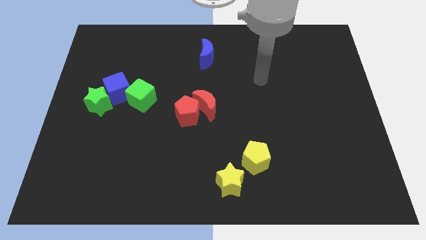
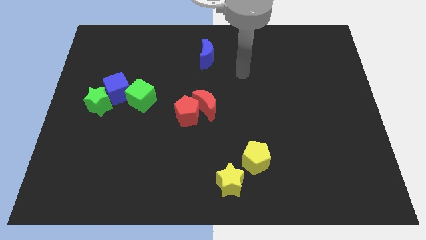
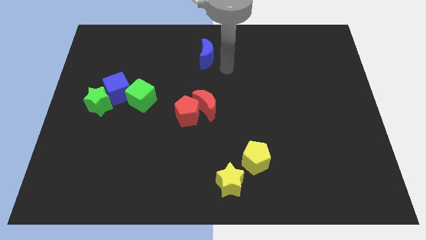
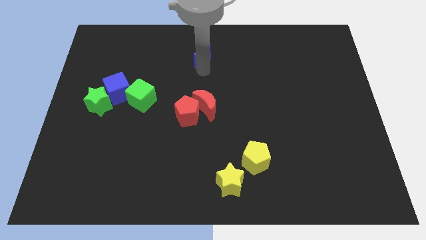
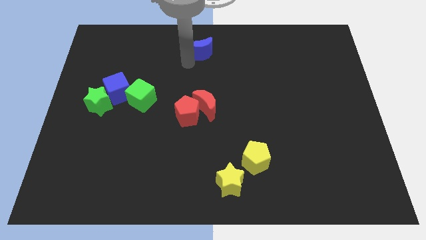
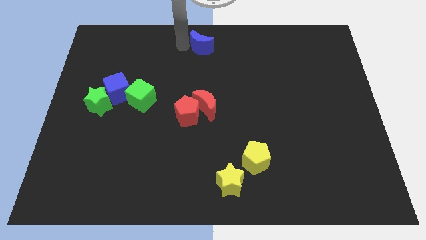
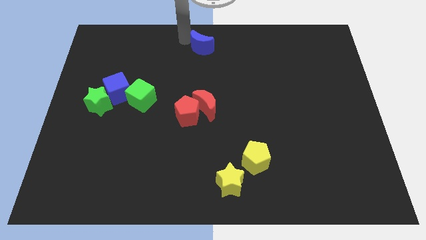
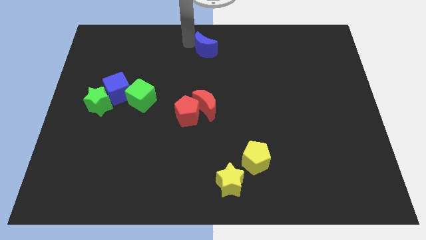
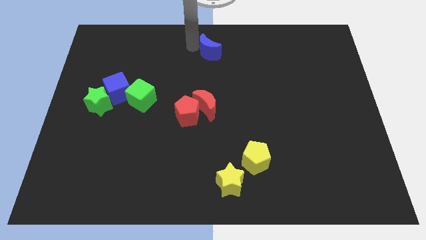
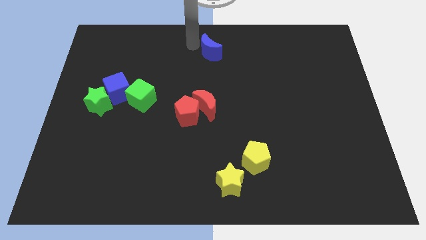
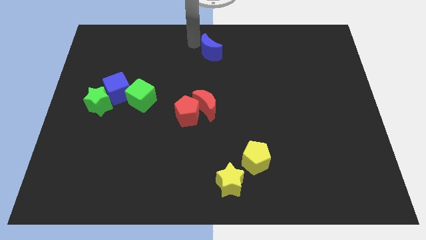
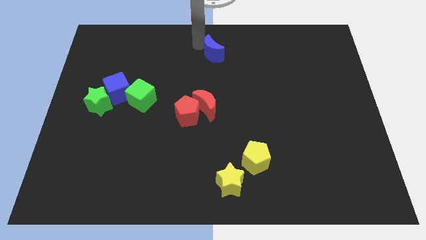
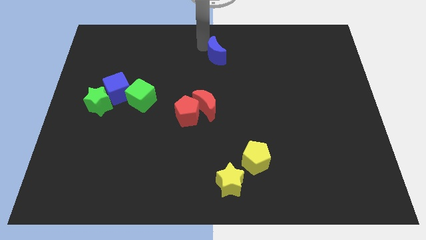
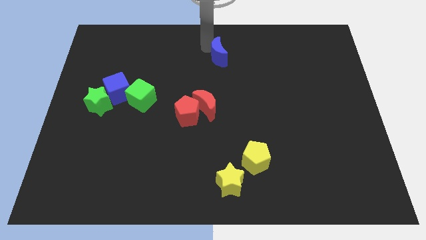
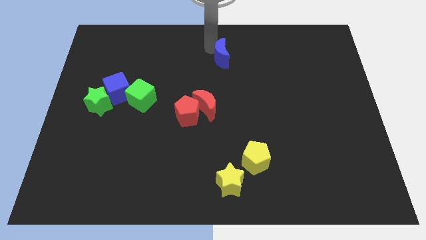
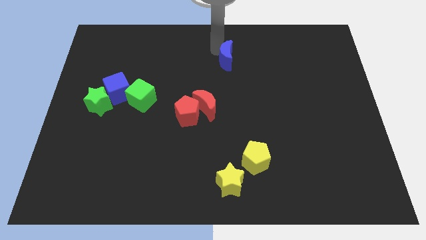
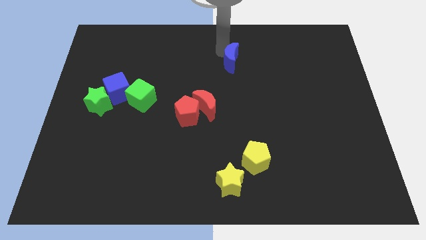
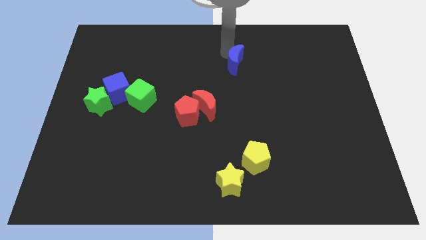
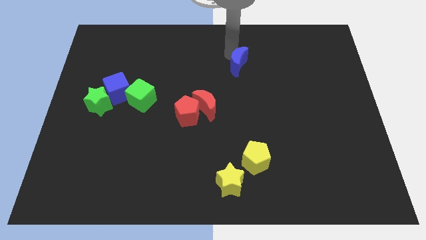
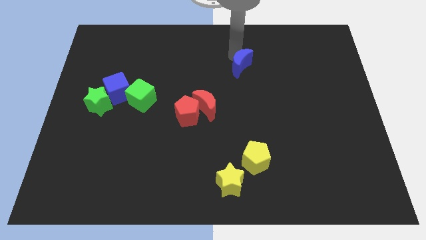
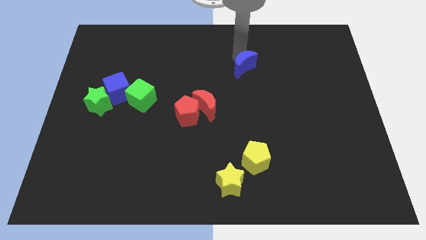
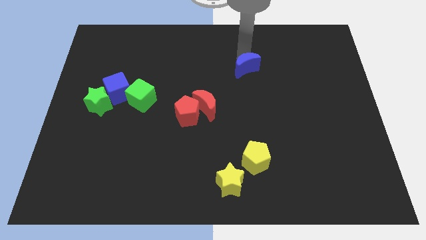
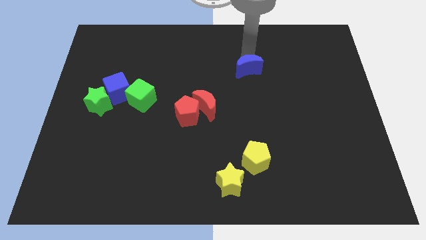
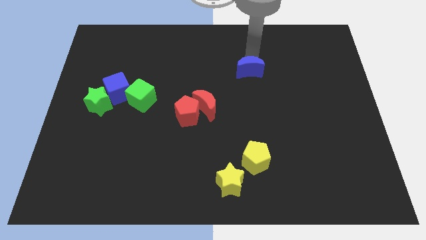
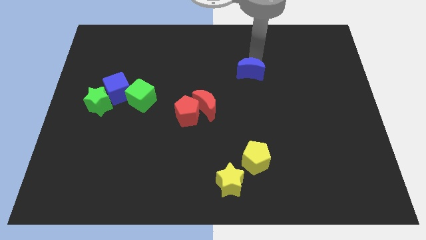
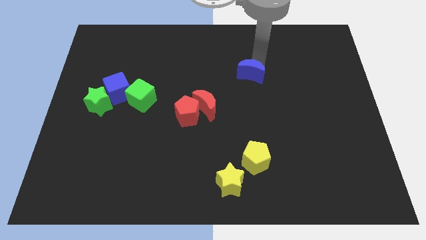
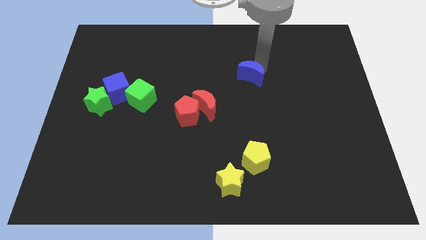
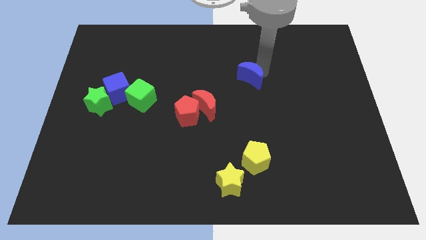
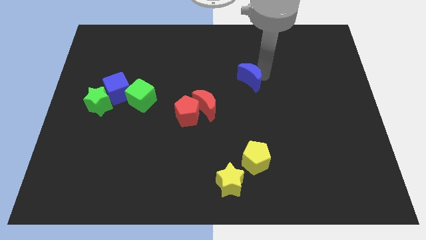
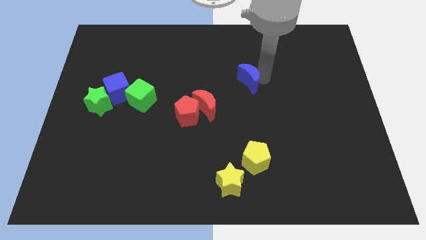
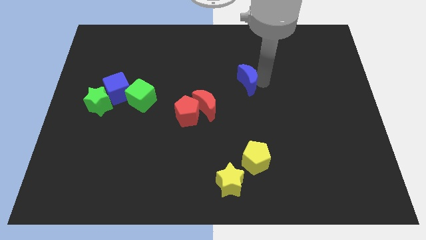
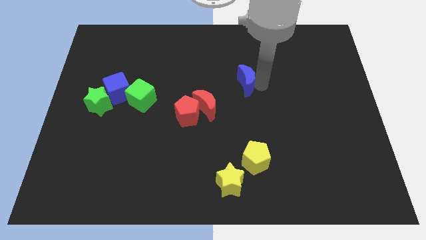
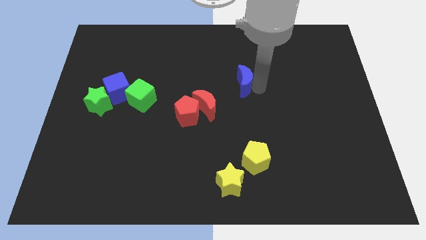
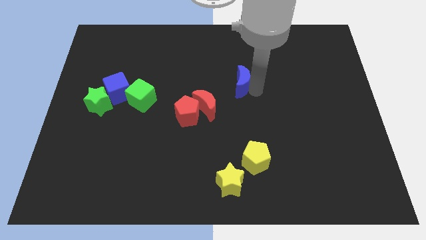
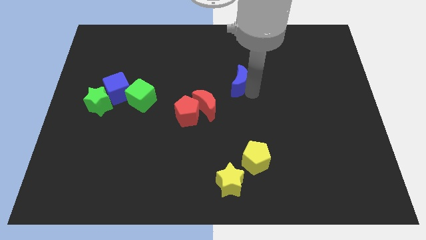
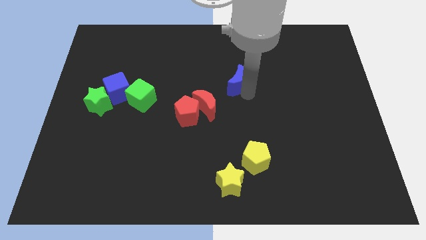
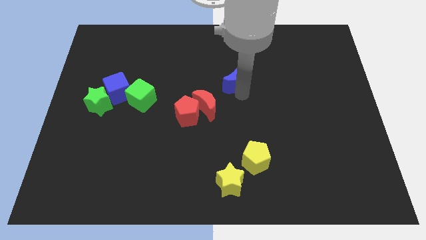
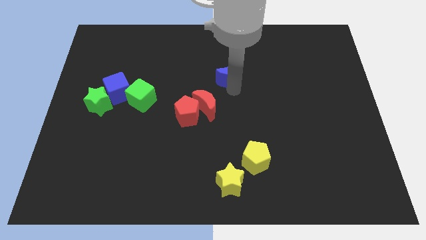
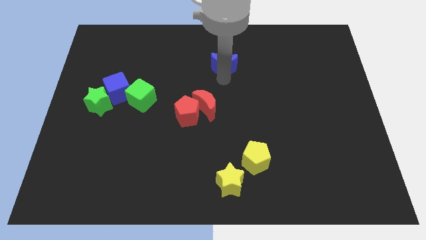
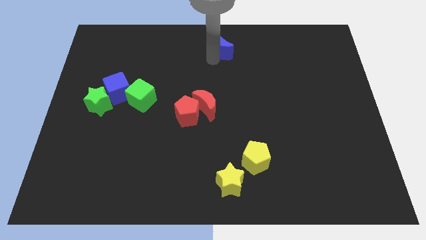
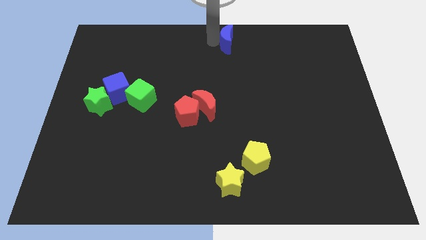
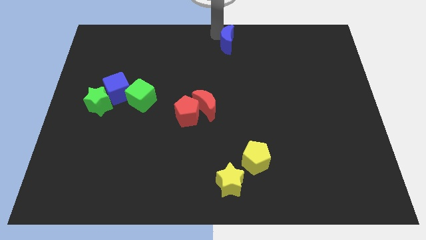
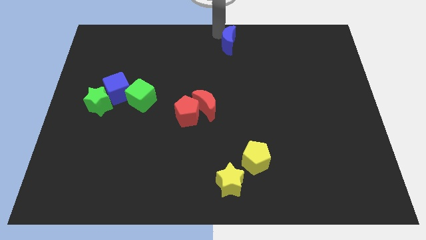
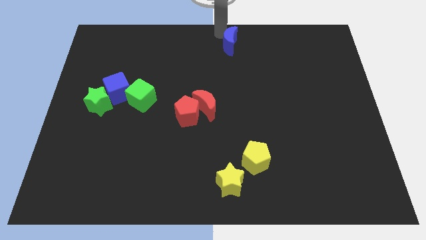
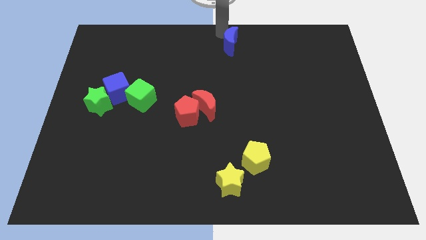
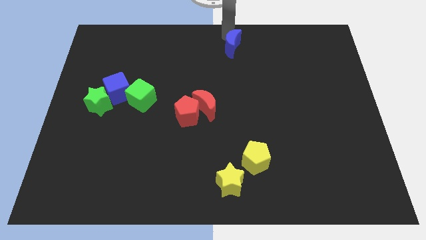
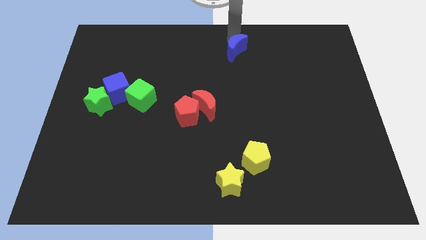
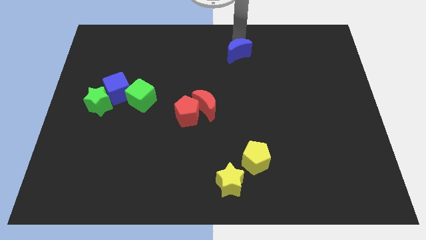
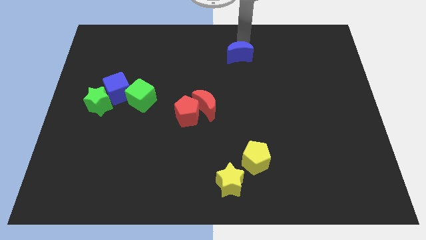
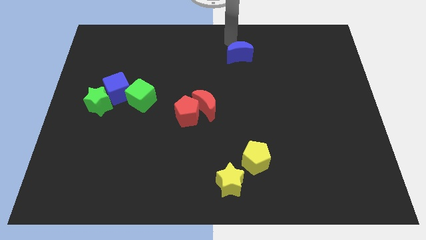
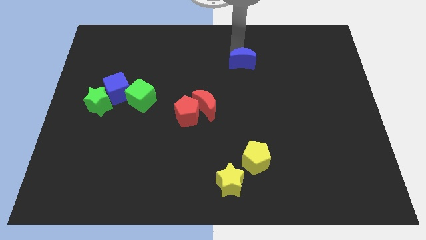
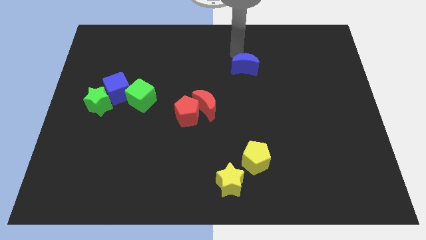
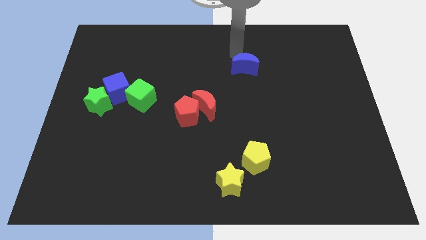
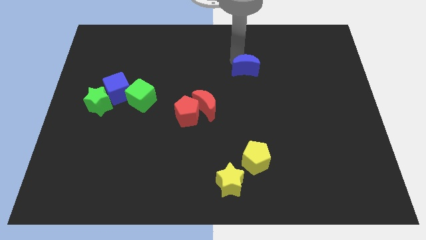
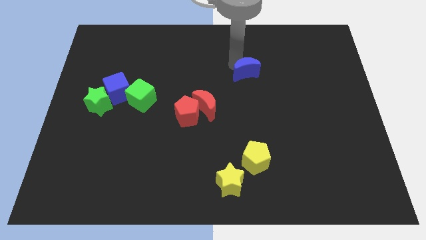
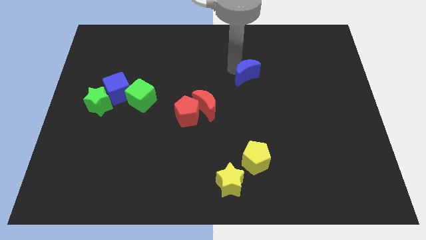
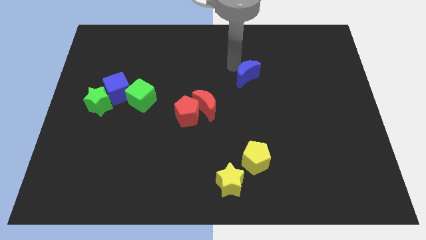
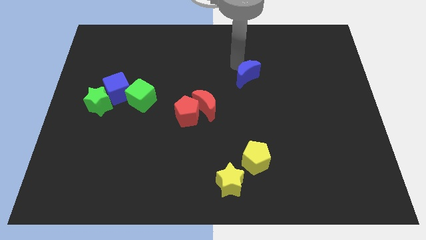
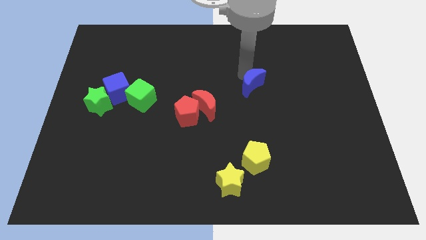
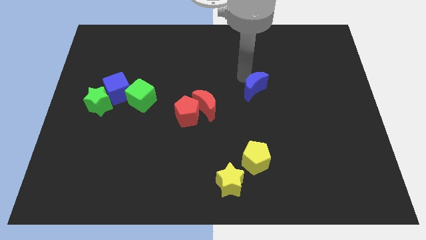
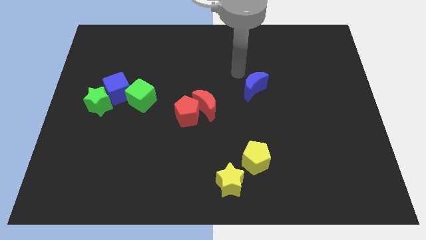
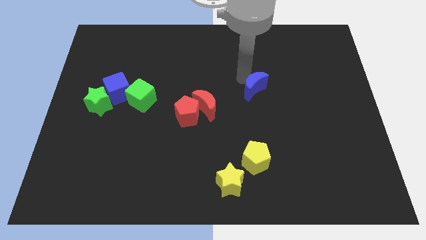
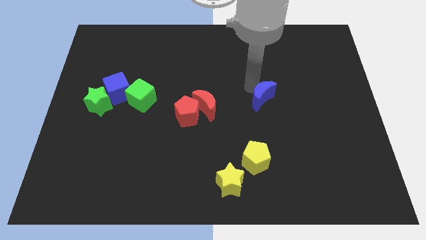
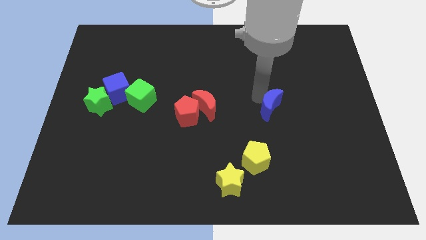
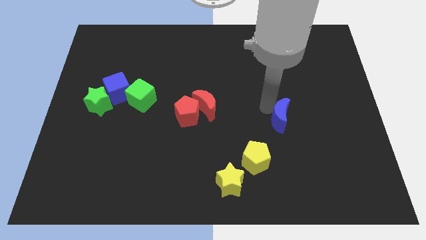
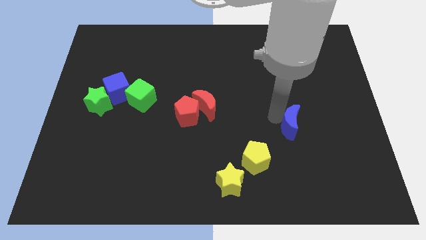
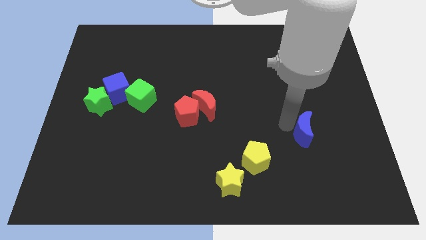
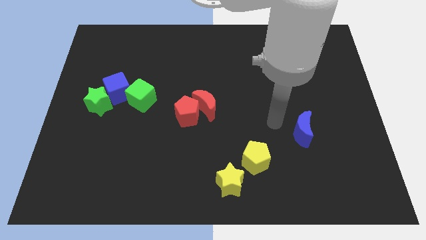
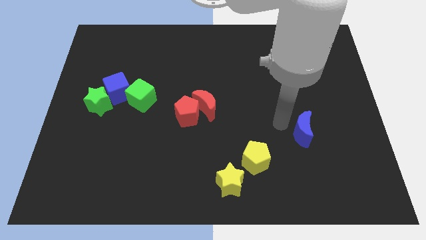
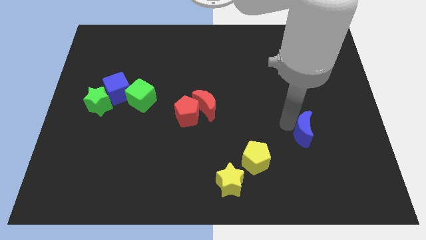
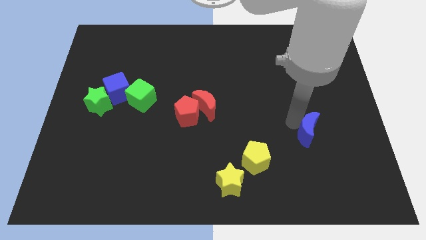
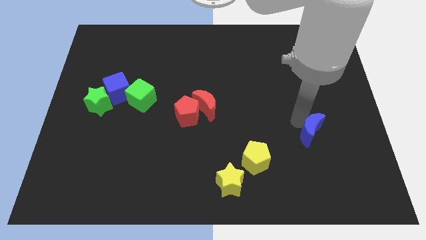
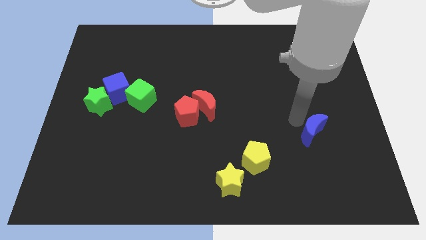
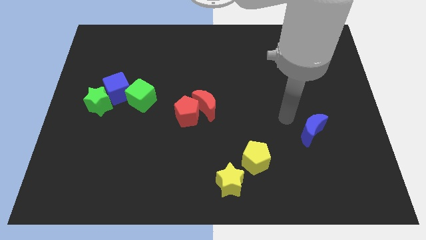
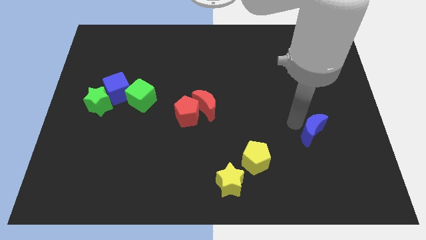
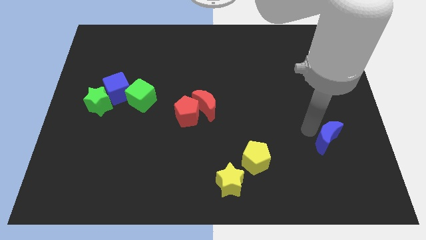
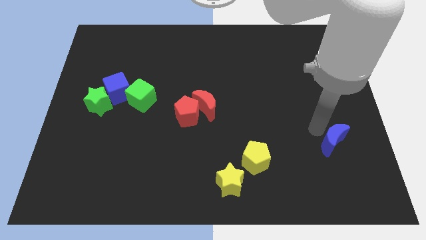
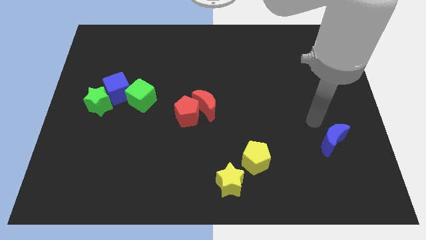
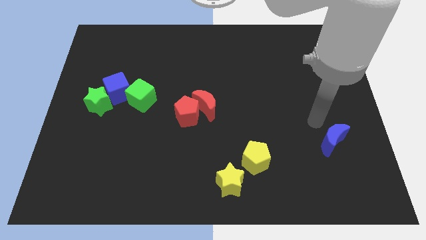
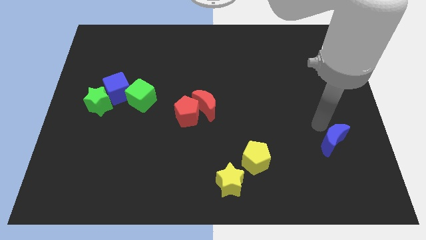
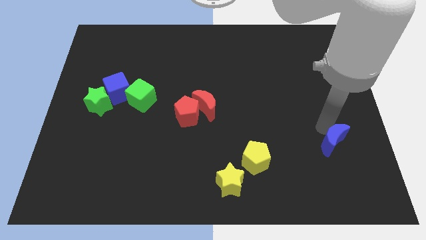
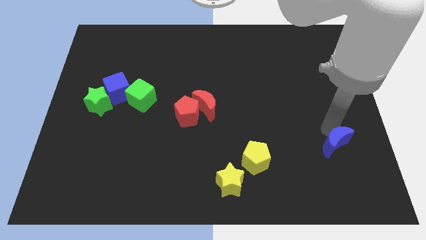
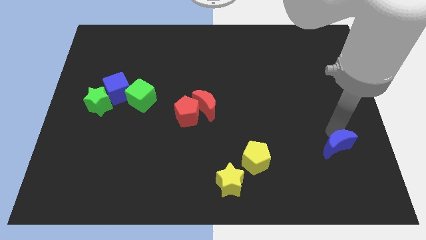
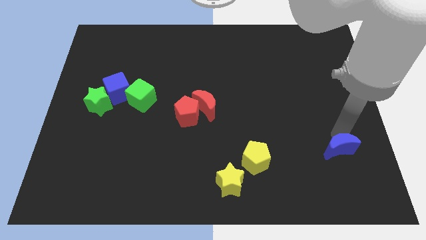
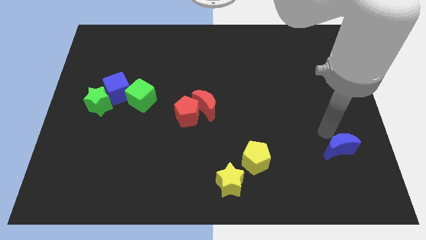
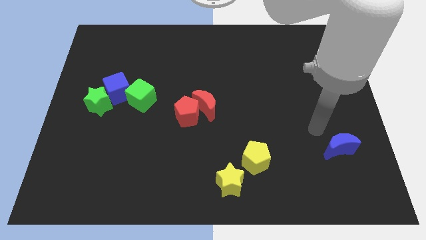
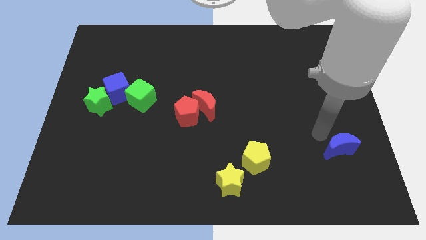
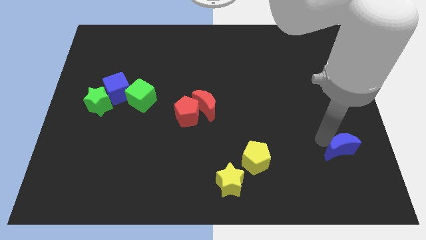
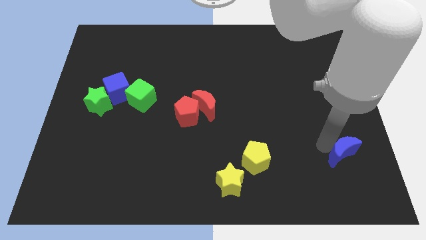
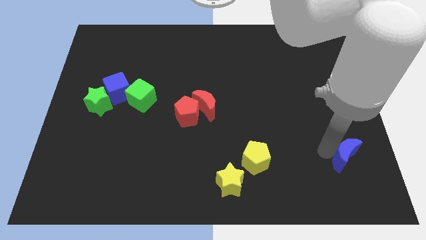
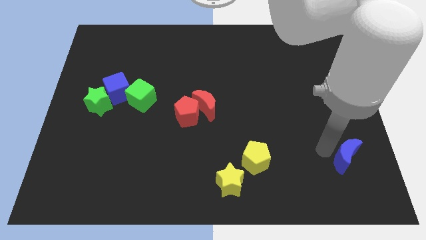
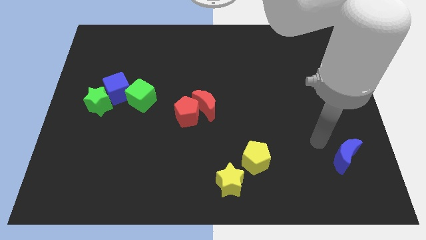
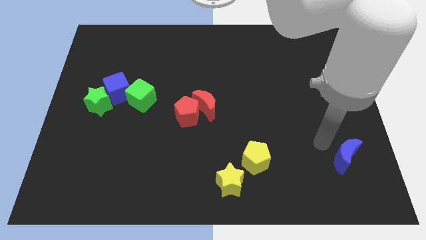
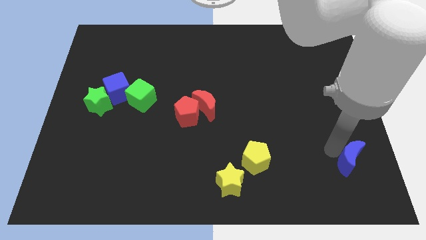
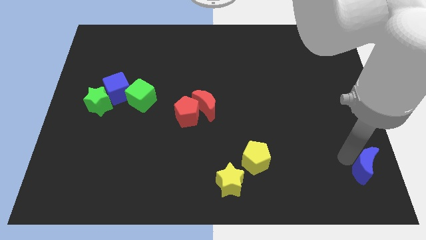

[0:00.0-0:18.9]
slide the blue moon to the lower right corner
